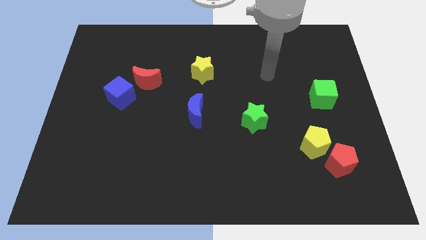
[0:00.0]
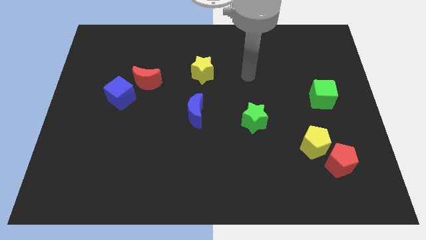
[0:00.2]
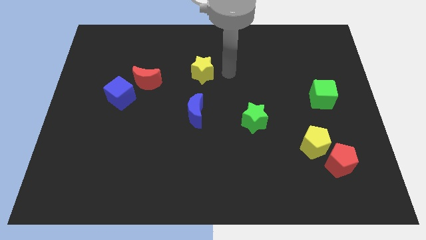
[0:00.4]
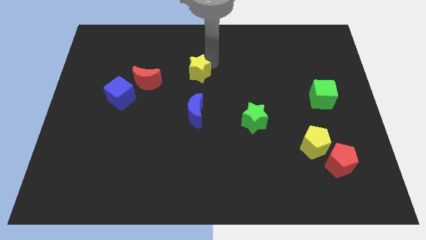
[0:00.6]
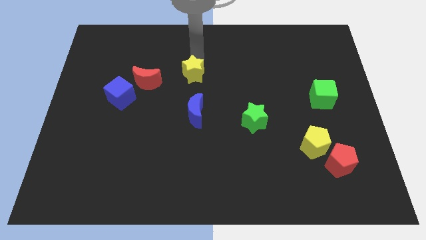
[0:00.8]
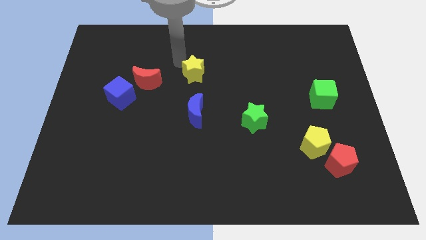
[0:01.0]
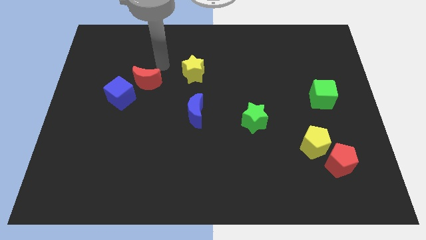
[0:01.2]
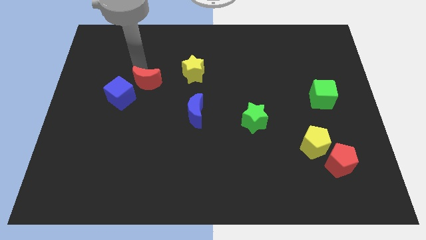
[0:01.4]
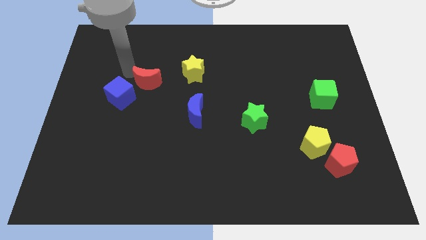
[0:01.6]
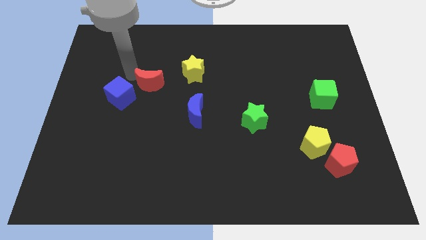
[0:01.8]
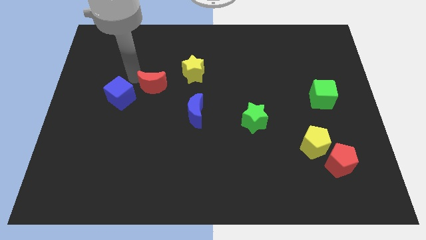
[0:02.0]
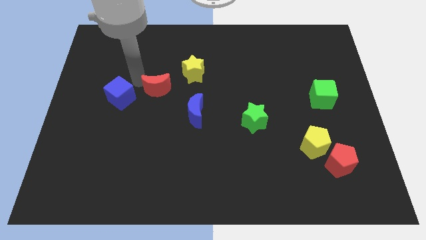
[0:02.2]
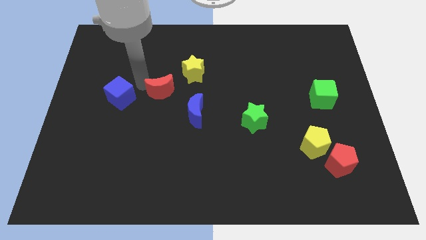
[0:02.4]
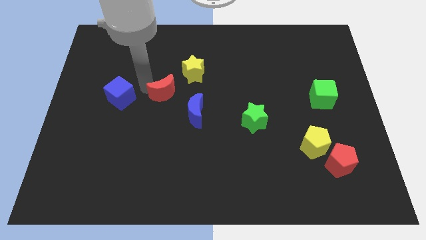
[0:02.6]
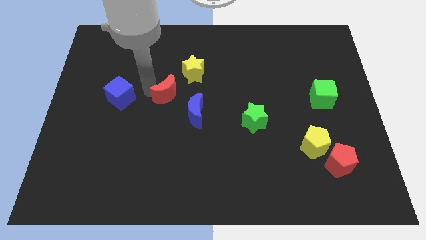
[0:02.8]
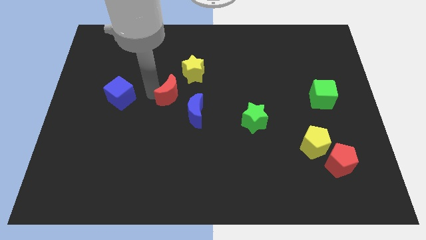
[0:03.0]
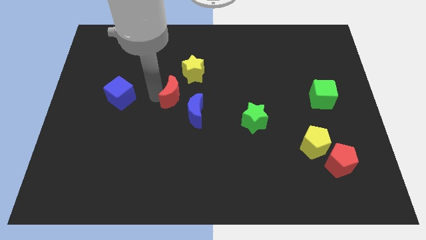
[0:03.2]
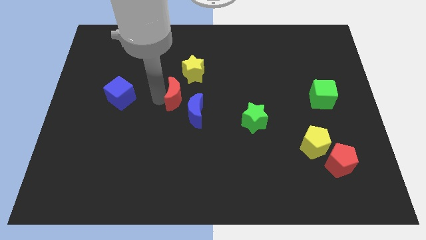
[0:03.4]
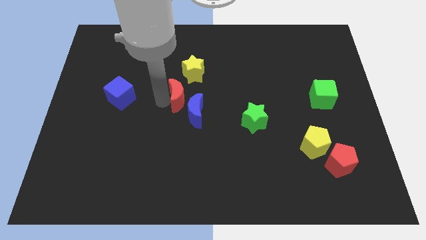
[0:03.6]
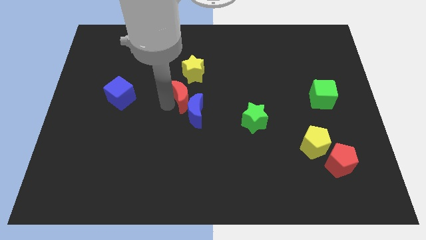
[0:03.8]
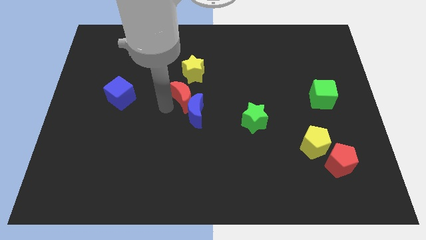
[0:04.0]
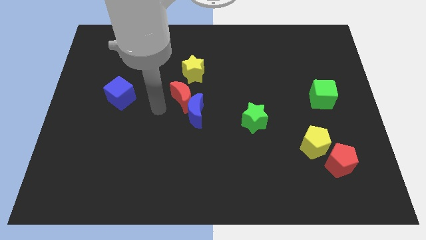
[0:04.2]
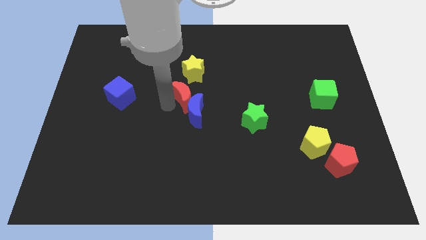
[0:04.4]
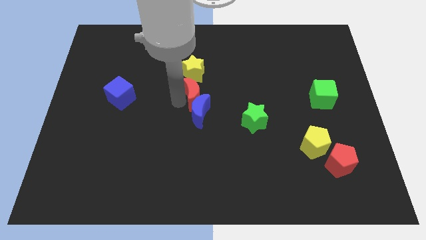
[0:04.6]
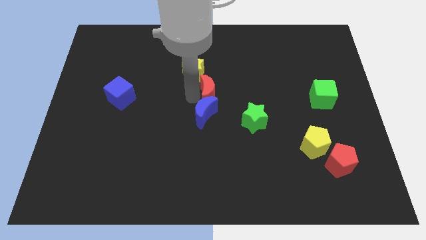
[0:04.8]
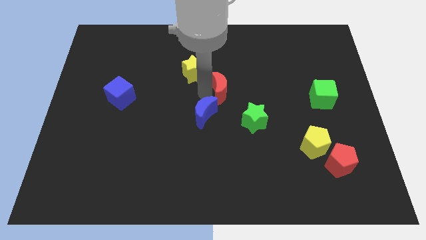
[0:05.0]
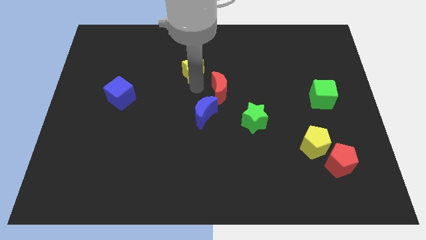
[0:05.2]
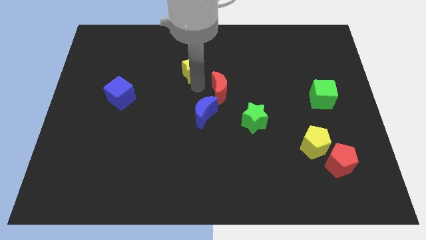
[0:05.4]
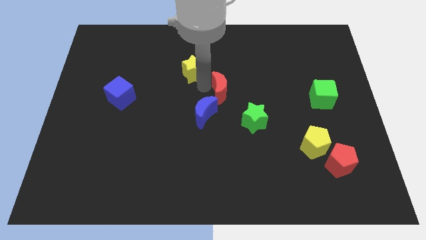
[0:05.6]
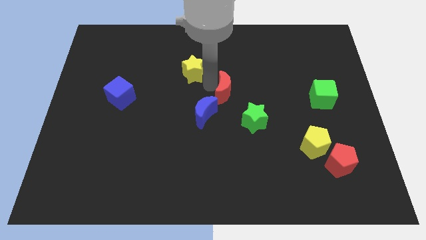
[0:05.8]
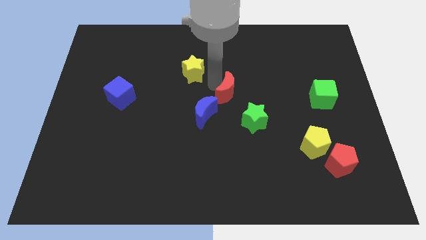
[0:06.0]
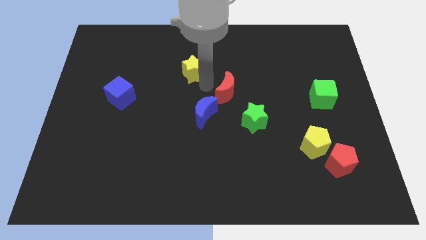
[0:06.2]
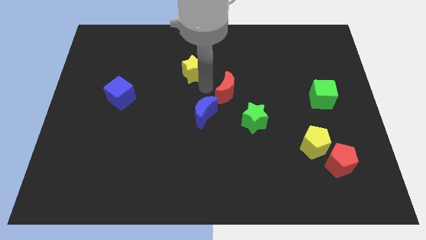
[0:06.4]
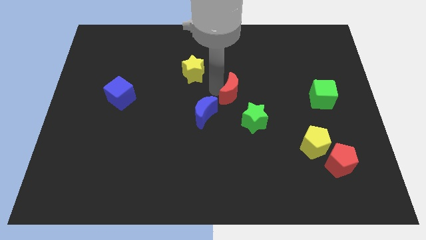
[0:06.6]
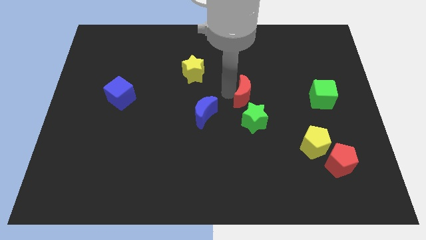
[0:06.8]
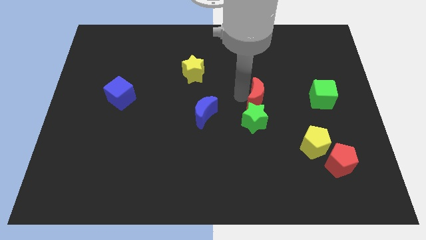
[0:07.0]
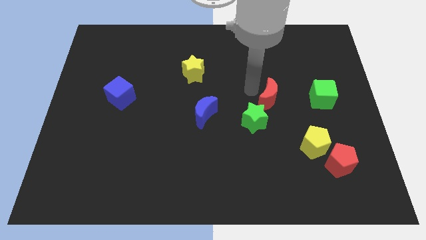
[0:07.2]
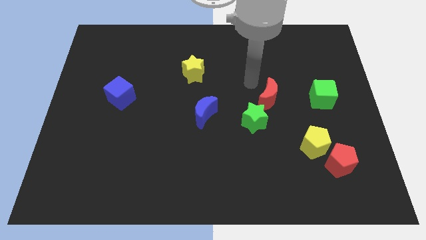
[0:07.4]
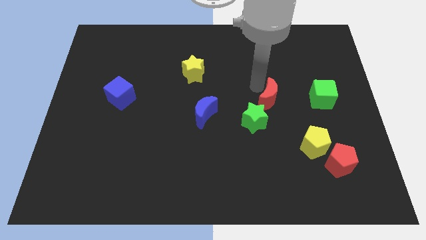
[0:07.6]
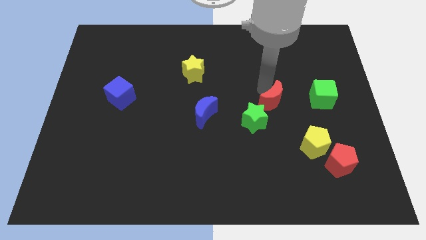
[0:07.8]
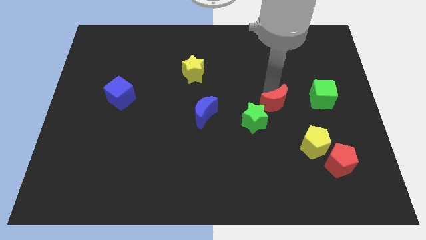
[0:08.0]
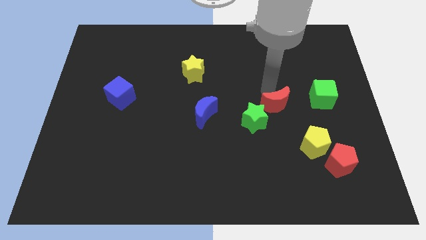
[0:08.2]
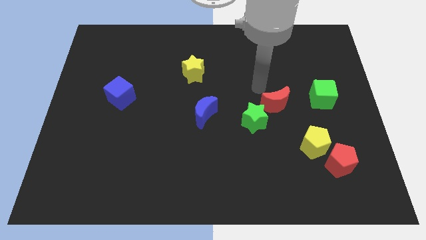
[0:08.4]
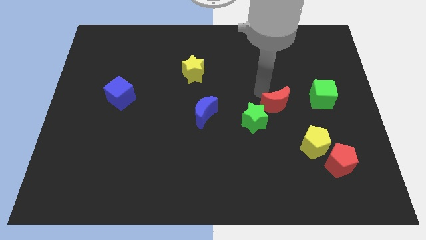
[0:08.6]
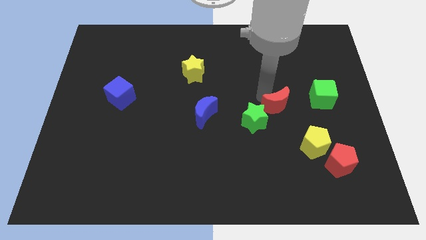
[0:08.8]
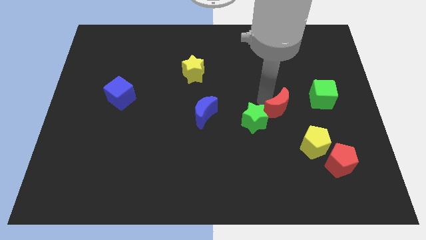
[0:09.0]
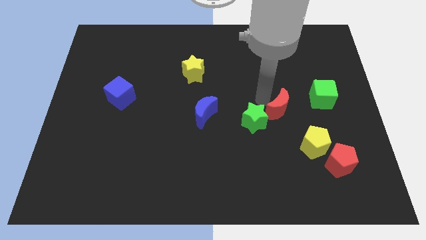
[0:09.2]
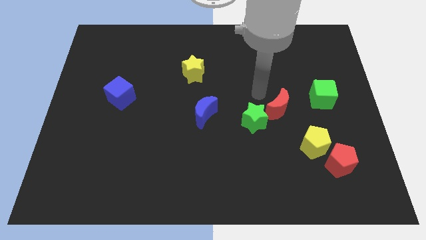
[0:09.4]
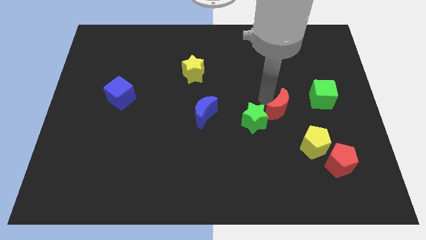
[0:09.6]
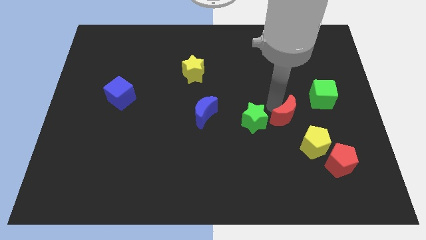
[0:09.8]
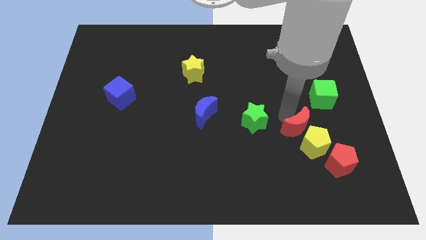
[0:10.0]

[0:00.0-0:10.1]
slide the red moon next to the yellow pentagon

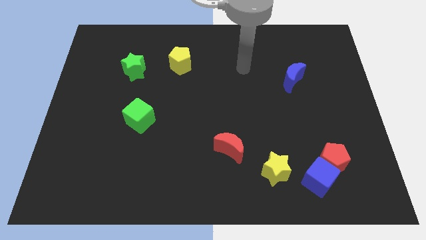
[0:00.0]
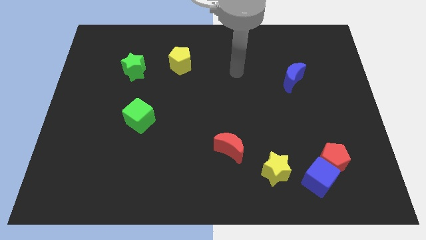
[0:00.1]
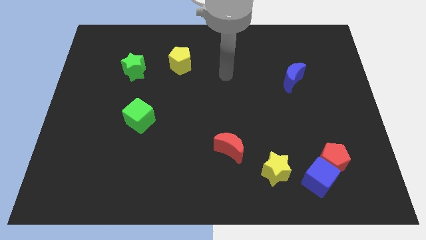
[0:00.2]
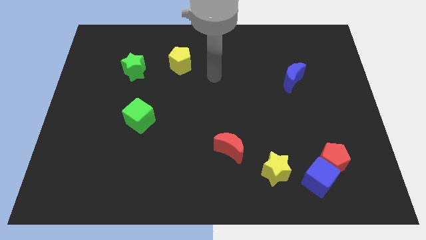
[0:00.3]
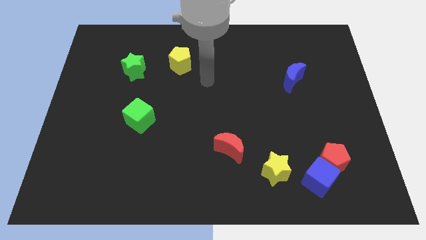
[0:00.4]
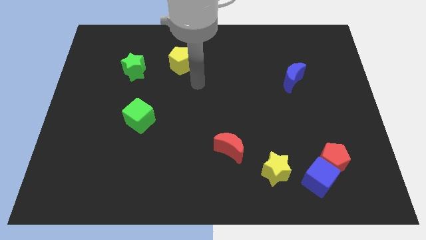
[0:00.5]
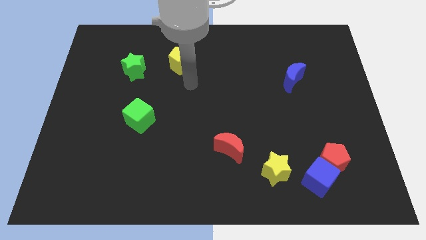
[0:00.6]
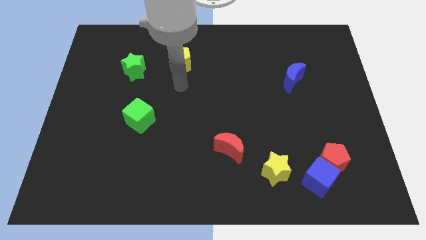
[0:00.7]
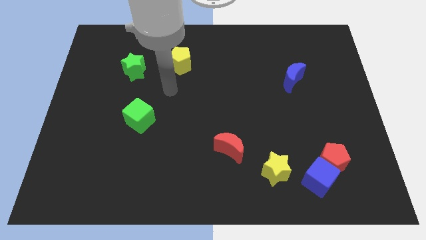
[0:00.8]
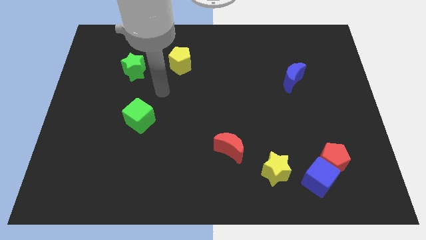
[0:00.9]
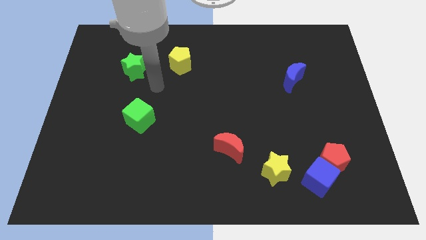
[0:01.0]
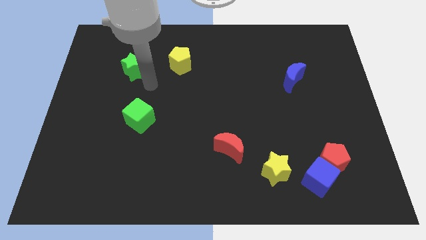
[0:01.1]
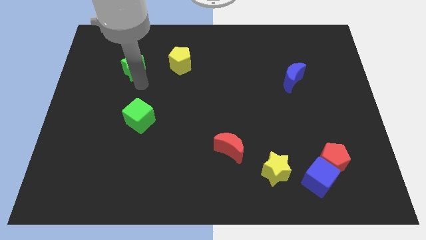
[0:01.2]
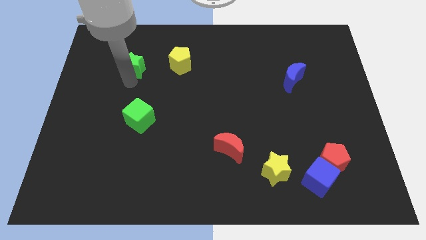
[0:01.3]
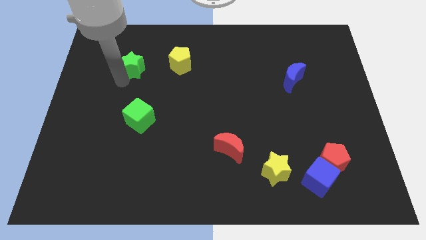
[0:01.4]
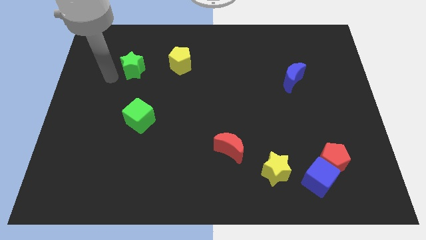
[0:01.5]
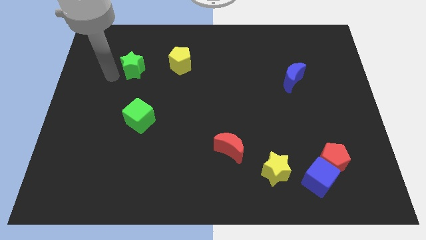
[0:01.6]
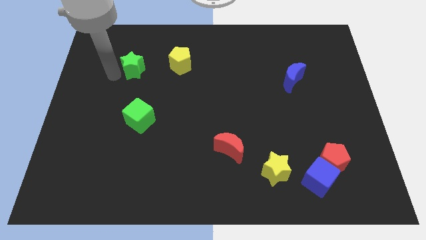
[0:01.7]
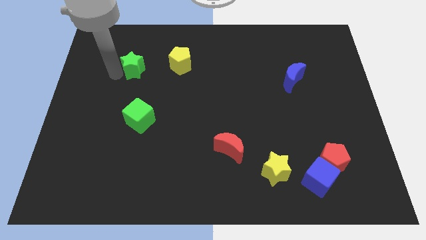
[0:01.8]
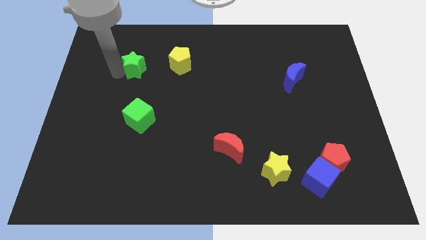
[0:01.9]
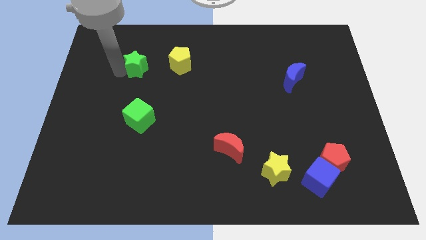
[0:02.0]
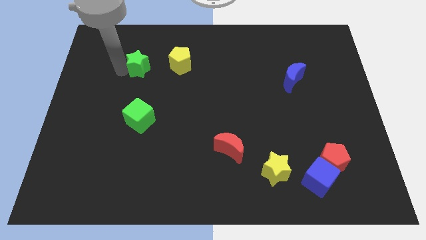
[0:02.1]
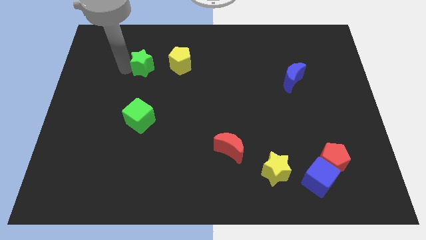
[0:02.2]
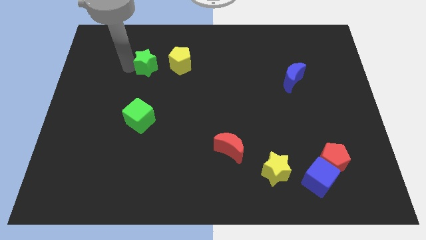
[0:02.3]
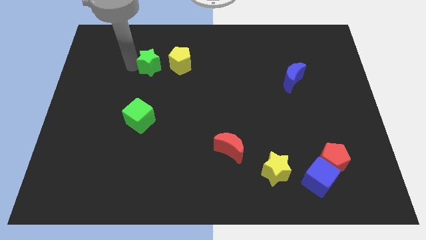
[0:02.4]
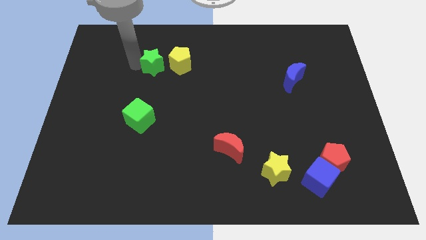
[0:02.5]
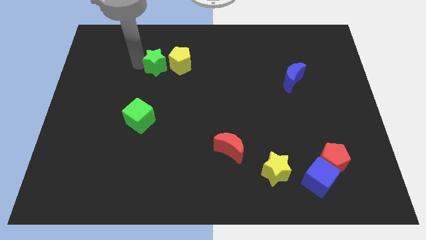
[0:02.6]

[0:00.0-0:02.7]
slide the green star next to the yellow pentagon

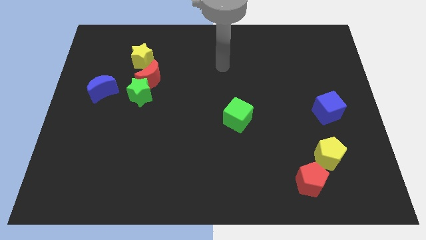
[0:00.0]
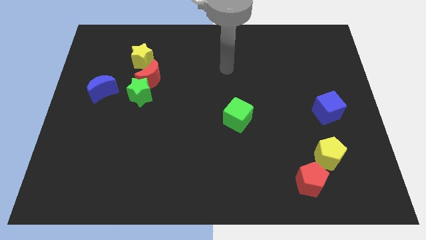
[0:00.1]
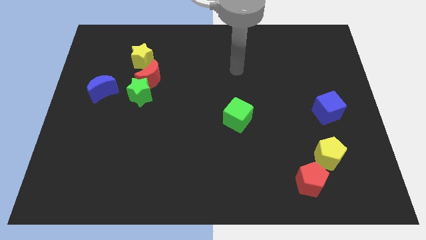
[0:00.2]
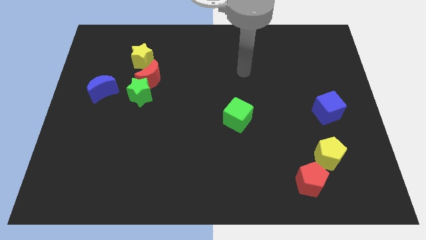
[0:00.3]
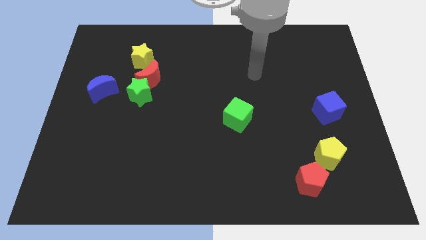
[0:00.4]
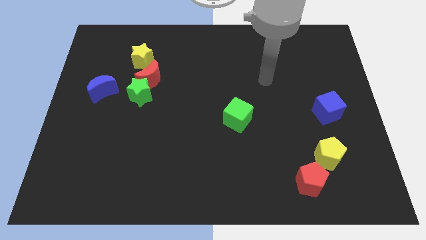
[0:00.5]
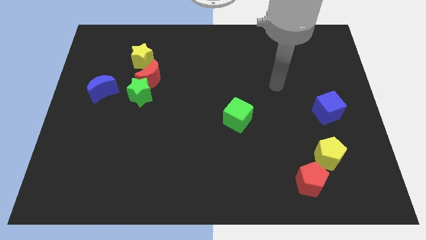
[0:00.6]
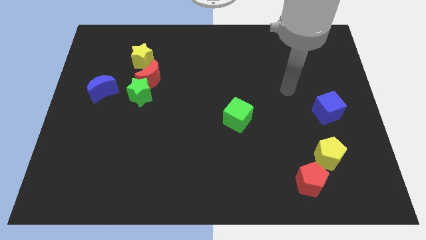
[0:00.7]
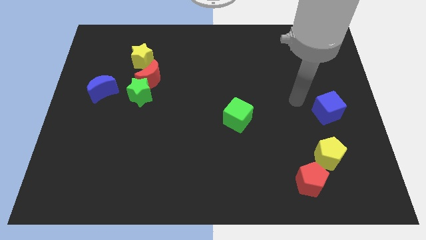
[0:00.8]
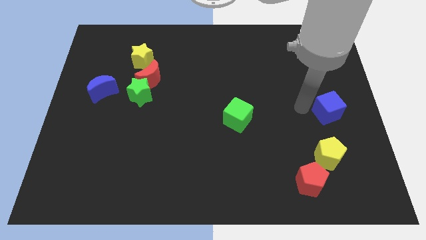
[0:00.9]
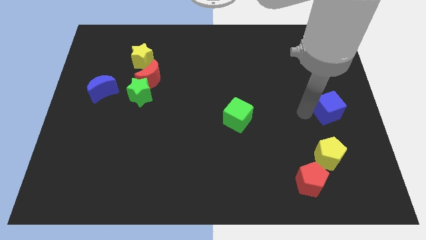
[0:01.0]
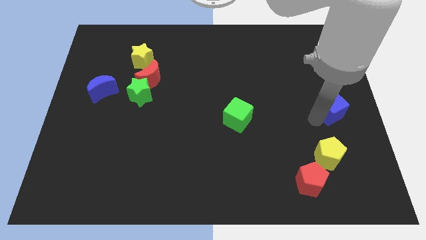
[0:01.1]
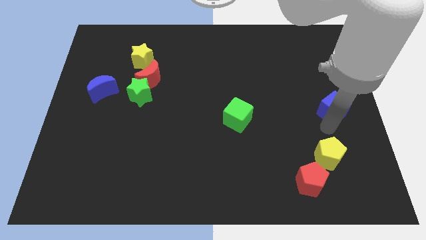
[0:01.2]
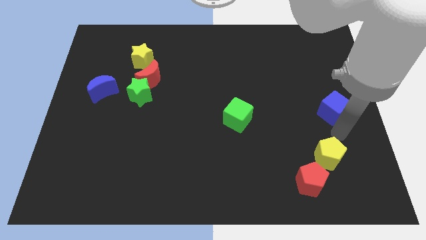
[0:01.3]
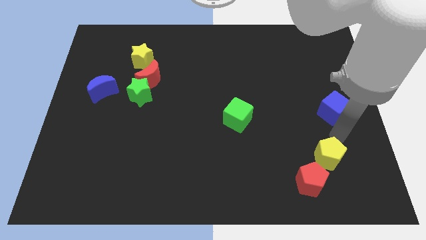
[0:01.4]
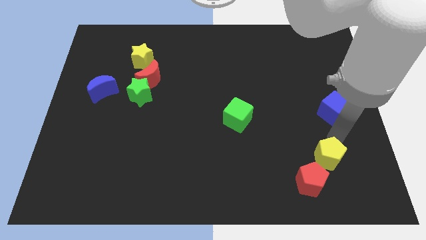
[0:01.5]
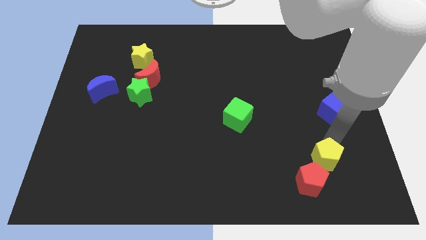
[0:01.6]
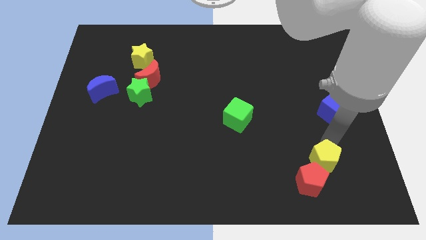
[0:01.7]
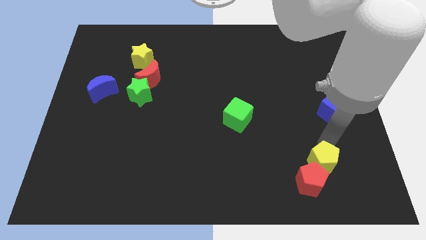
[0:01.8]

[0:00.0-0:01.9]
move the yellow pentagon close to the red pentagon
